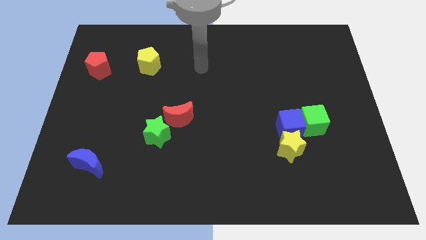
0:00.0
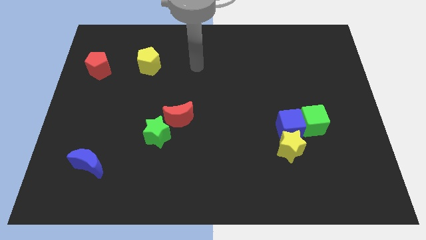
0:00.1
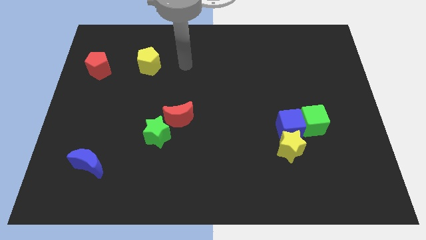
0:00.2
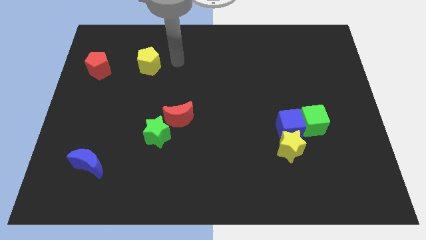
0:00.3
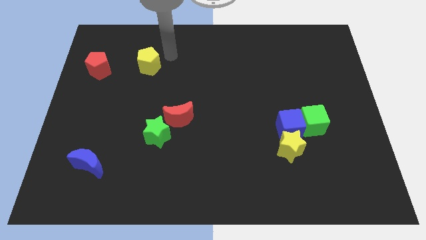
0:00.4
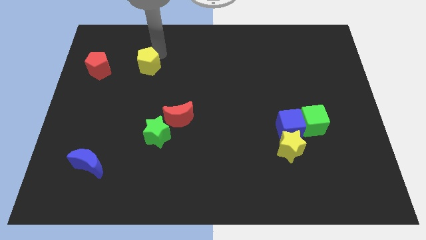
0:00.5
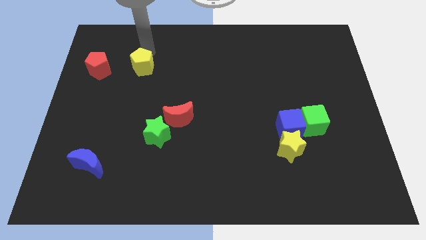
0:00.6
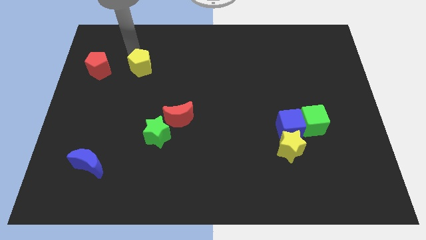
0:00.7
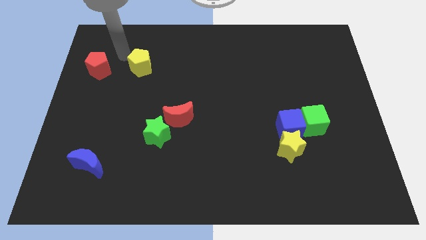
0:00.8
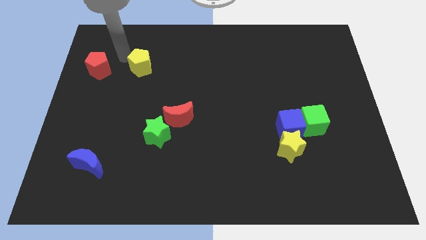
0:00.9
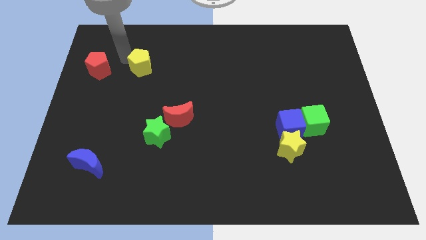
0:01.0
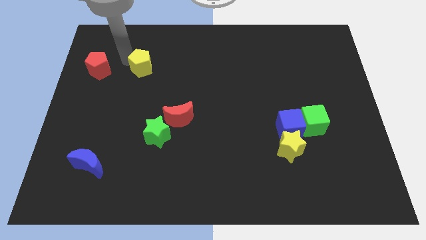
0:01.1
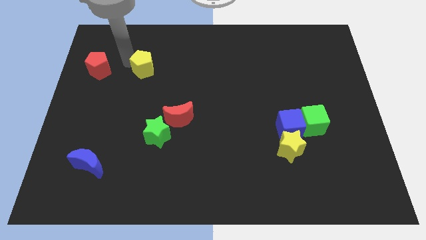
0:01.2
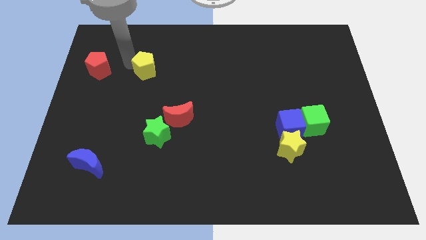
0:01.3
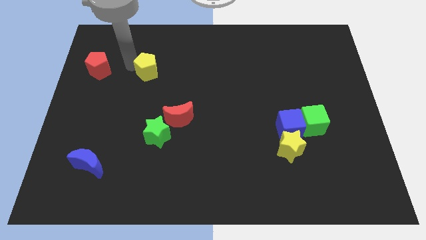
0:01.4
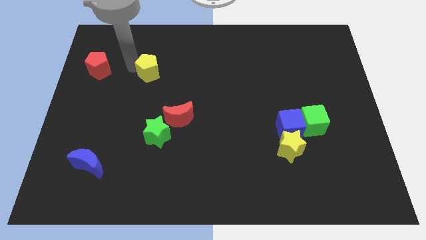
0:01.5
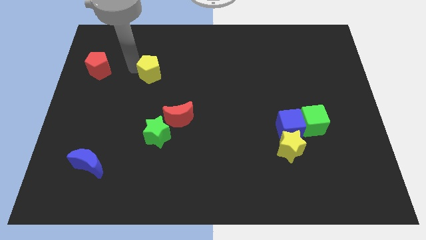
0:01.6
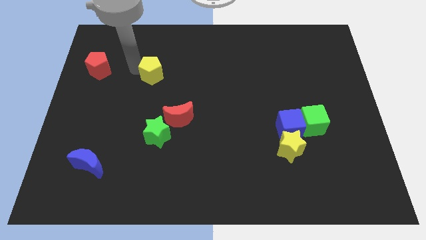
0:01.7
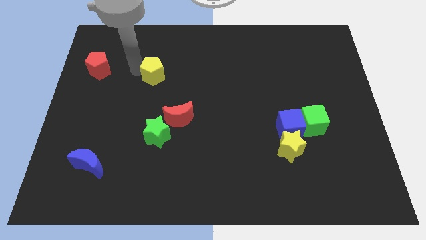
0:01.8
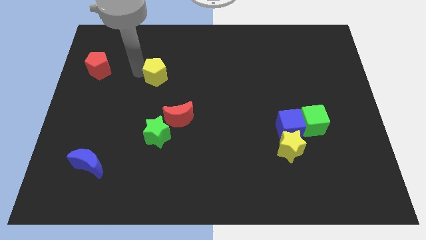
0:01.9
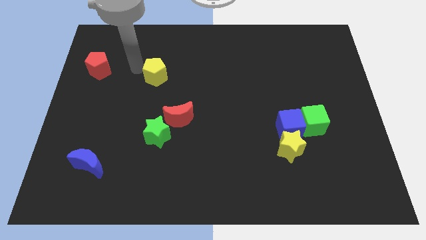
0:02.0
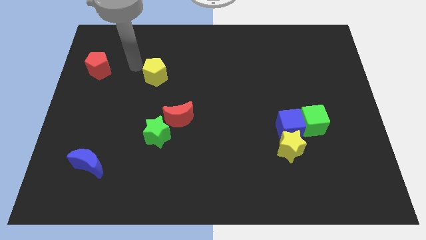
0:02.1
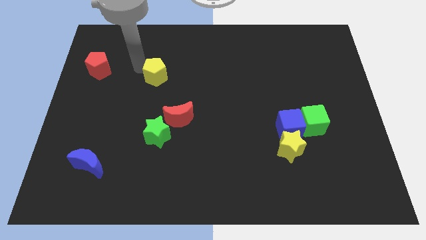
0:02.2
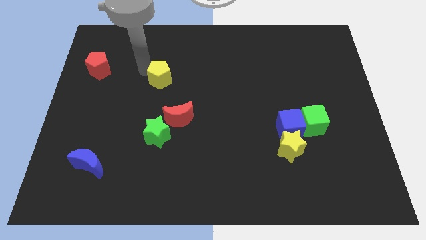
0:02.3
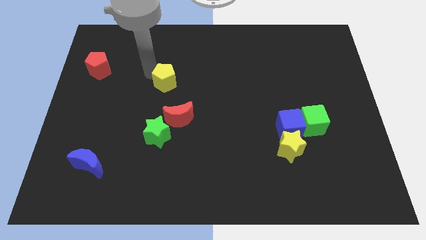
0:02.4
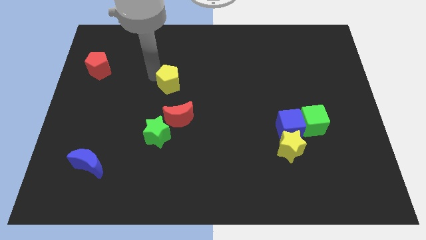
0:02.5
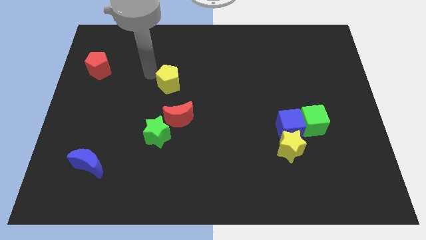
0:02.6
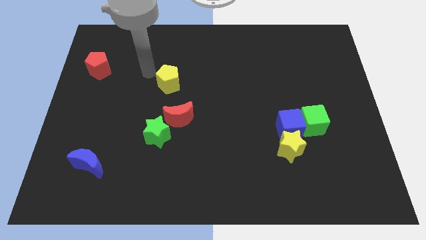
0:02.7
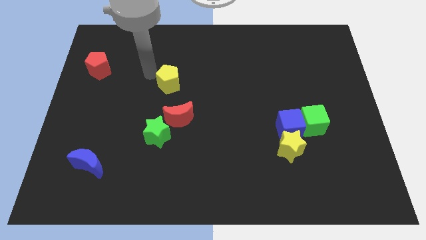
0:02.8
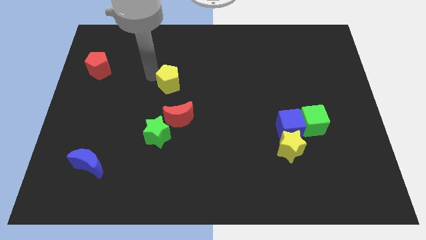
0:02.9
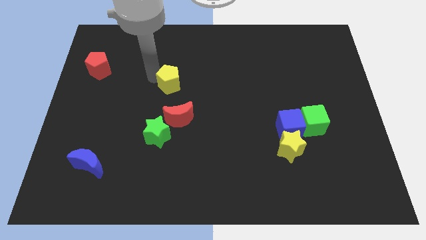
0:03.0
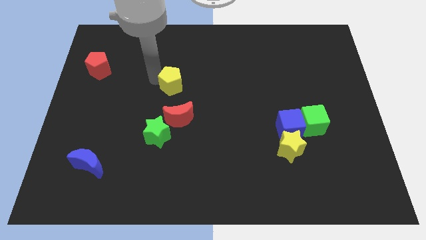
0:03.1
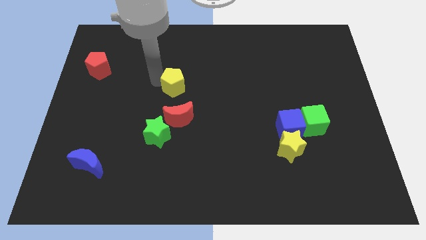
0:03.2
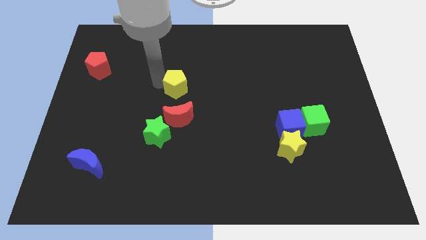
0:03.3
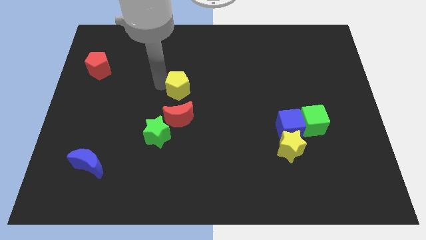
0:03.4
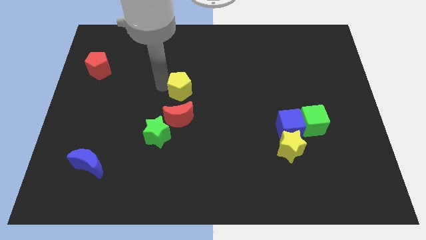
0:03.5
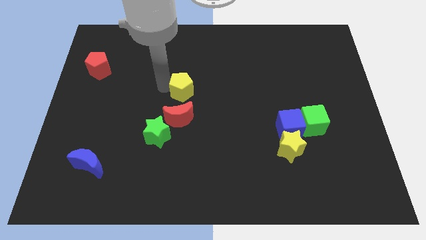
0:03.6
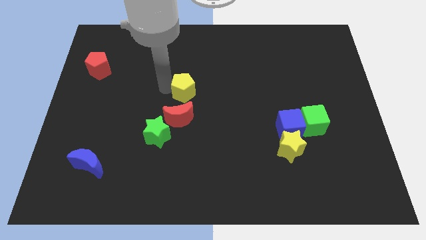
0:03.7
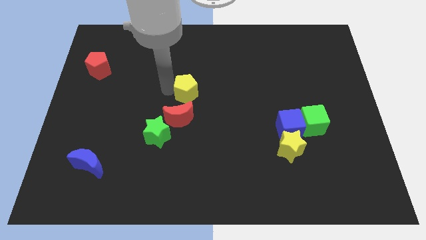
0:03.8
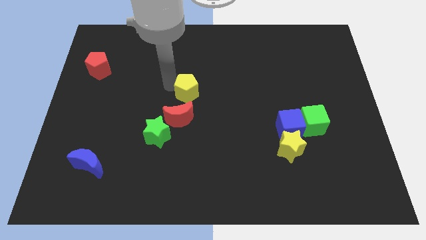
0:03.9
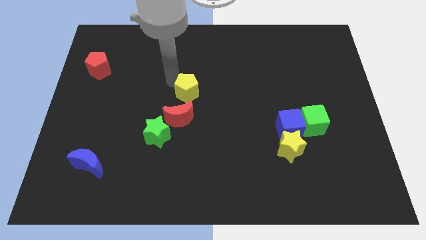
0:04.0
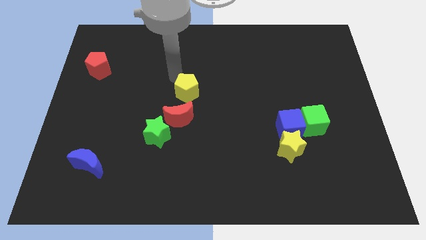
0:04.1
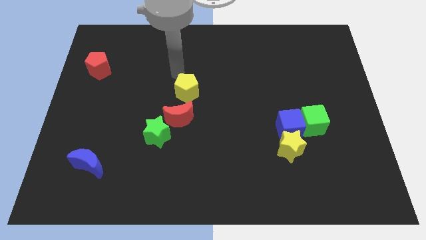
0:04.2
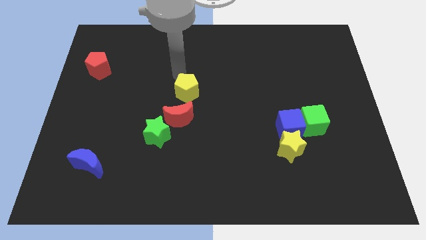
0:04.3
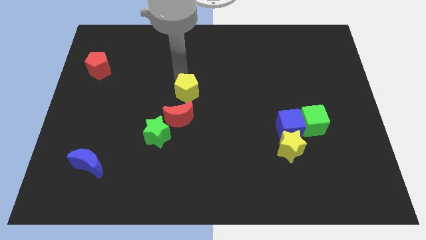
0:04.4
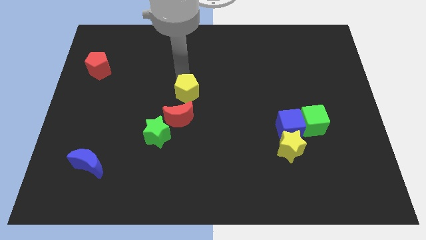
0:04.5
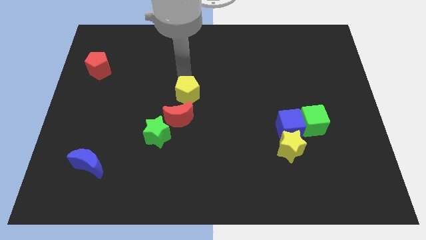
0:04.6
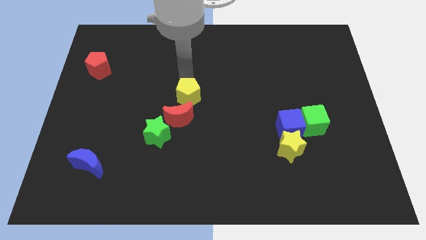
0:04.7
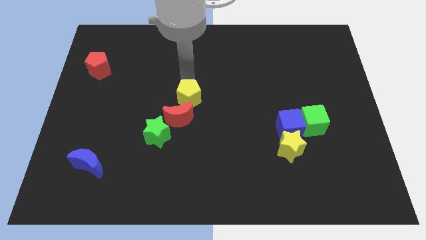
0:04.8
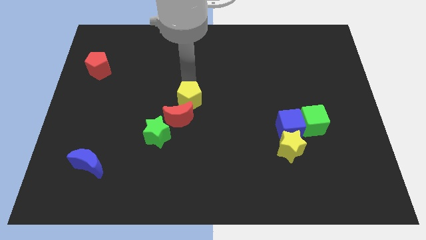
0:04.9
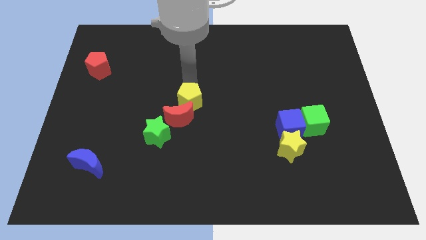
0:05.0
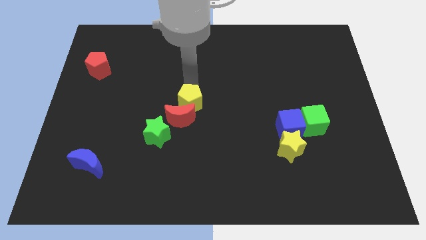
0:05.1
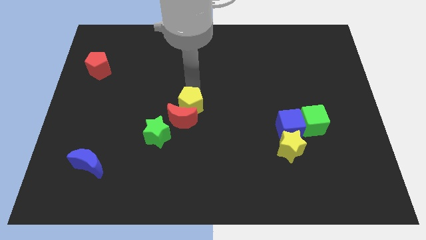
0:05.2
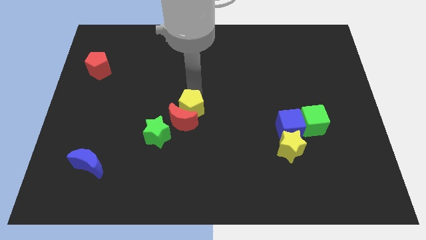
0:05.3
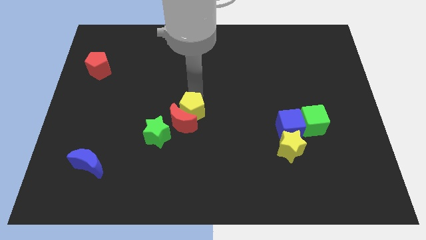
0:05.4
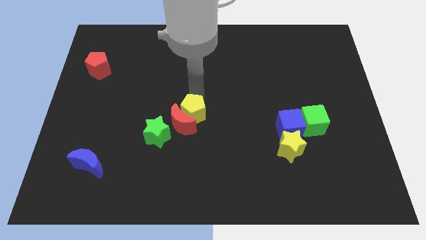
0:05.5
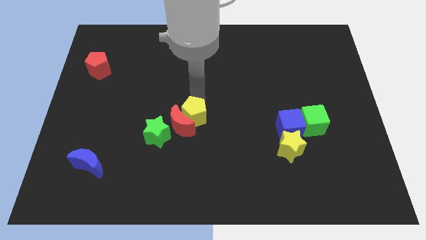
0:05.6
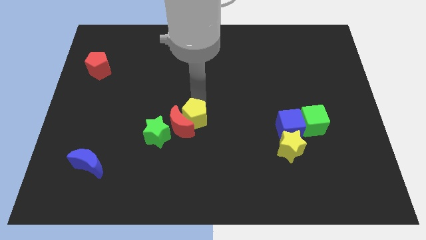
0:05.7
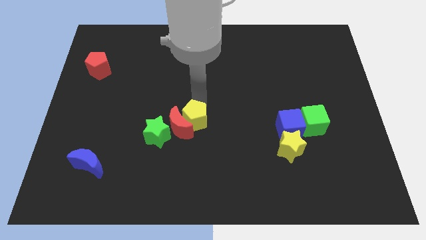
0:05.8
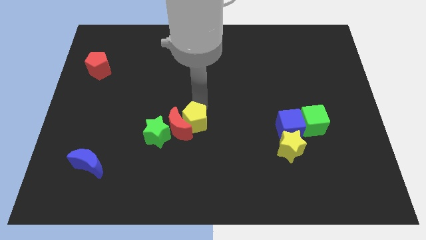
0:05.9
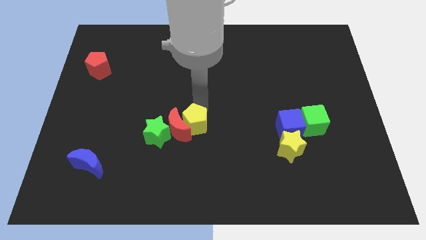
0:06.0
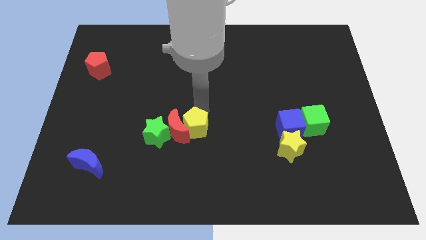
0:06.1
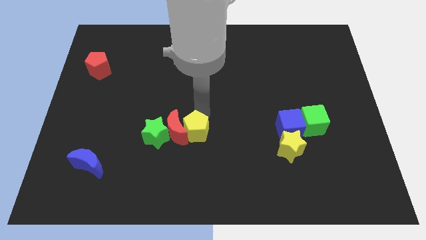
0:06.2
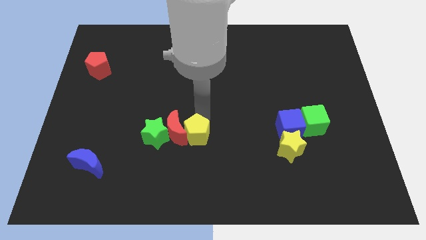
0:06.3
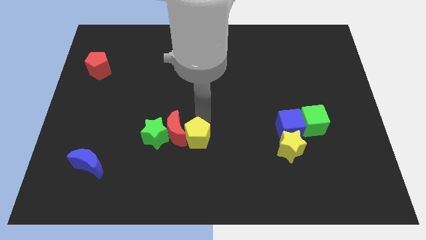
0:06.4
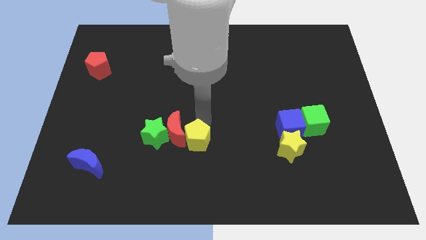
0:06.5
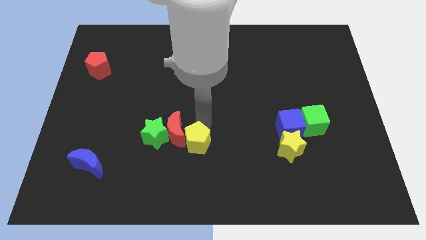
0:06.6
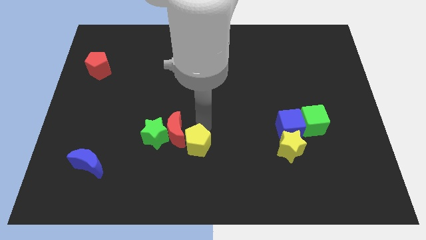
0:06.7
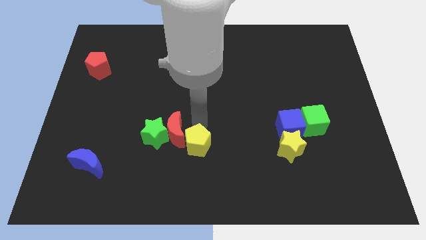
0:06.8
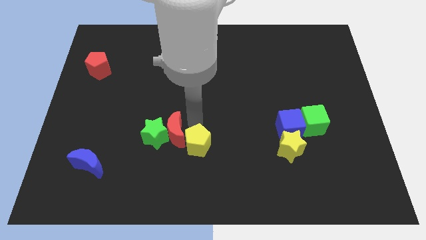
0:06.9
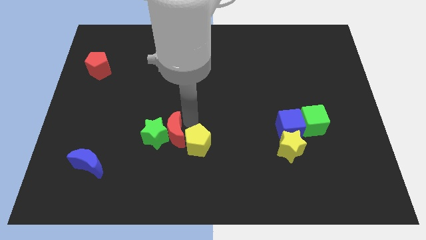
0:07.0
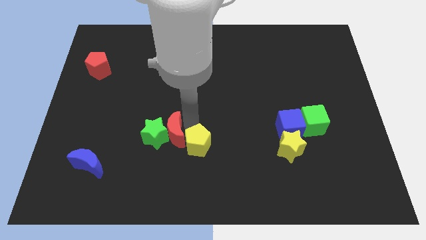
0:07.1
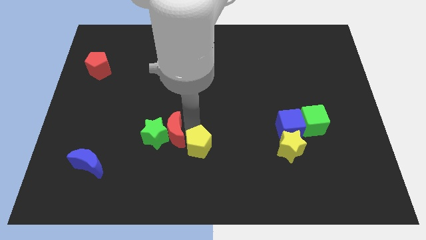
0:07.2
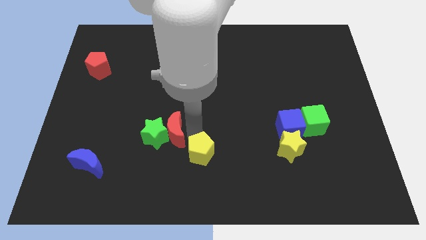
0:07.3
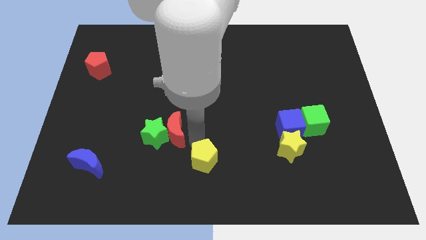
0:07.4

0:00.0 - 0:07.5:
push the yellow pentagon to the bottom side
